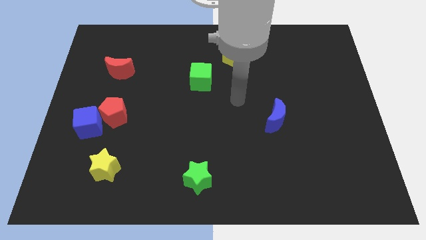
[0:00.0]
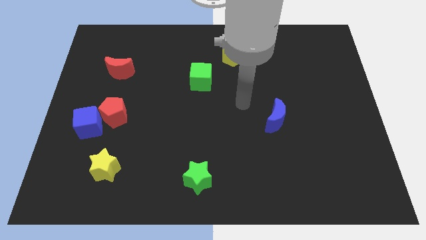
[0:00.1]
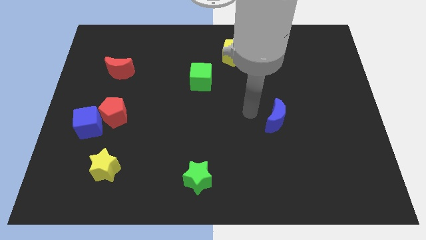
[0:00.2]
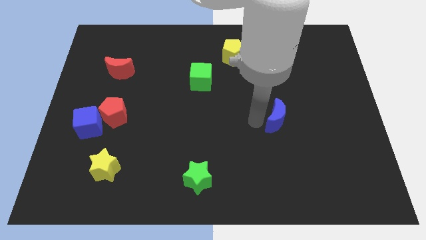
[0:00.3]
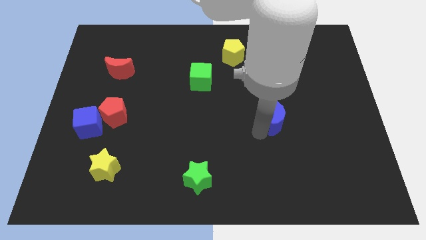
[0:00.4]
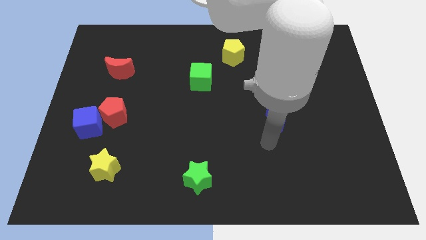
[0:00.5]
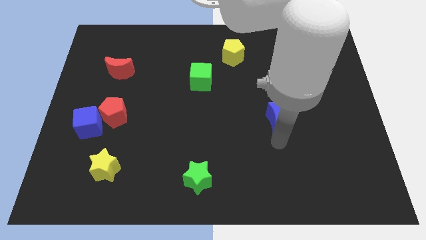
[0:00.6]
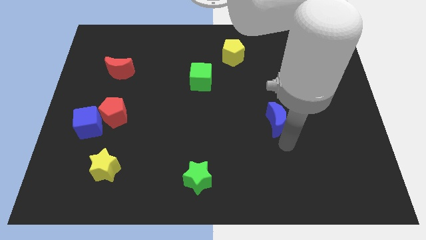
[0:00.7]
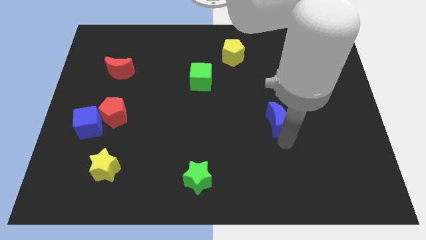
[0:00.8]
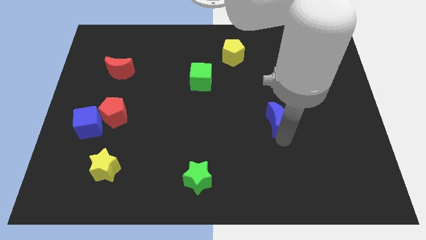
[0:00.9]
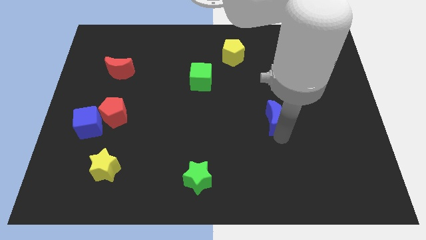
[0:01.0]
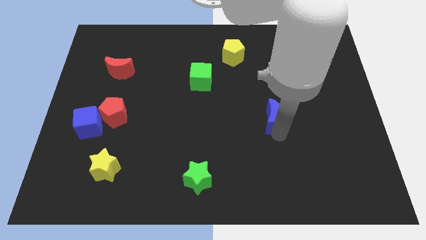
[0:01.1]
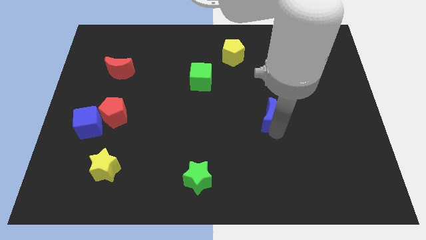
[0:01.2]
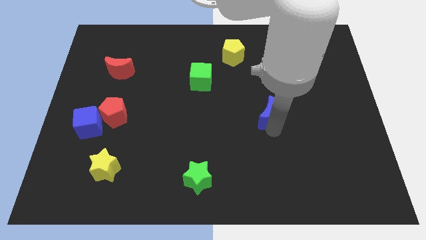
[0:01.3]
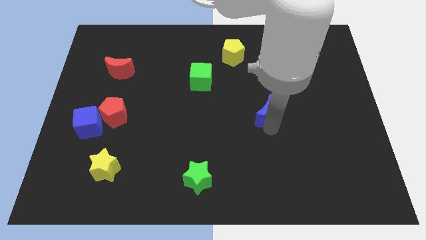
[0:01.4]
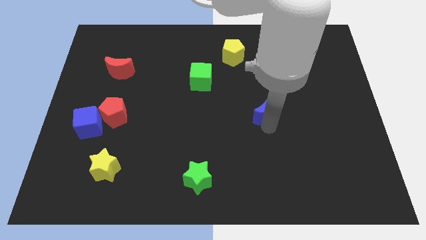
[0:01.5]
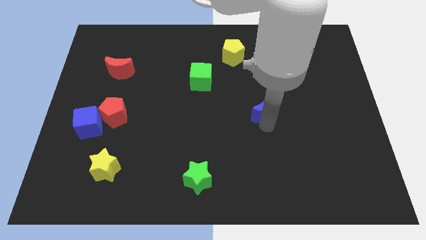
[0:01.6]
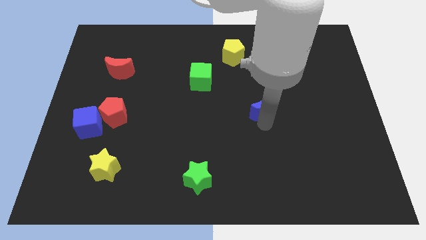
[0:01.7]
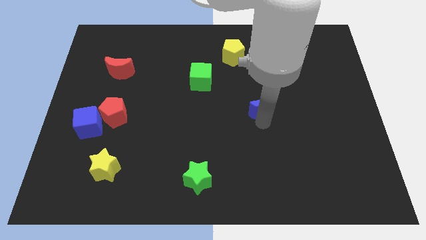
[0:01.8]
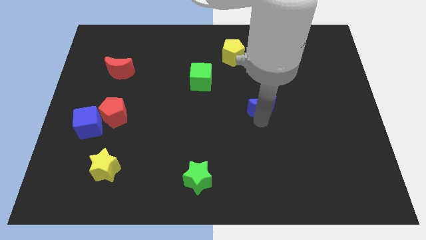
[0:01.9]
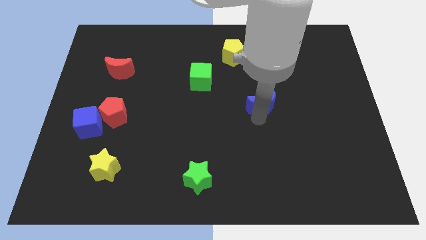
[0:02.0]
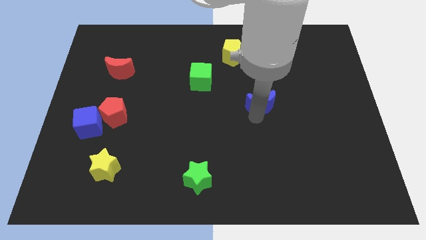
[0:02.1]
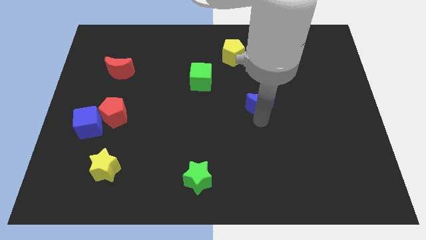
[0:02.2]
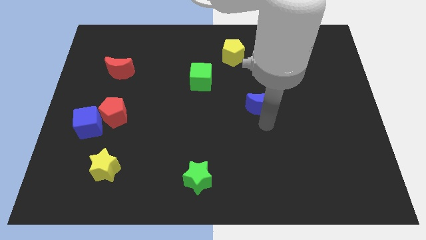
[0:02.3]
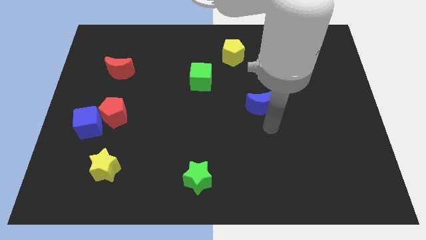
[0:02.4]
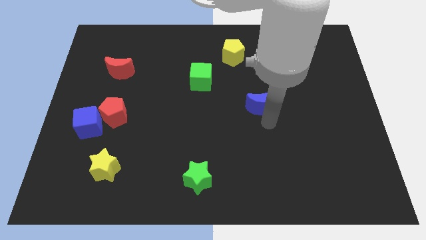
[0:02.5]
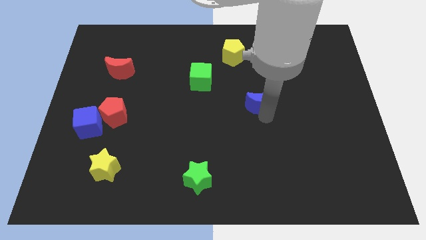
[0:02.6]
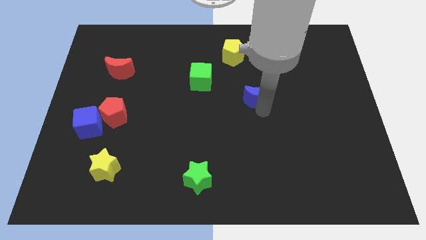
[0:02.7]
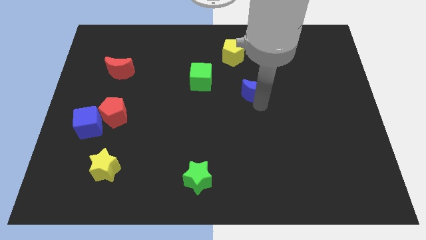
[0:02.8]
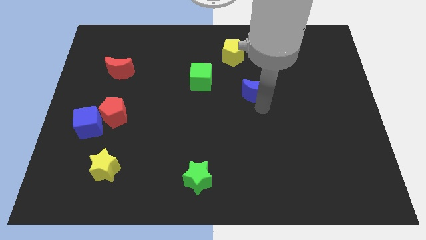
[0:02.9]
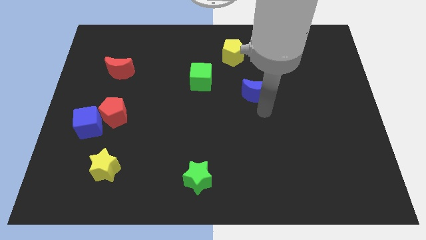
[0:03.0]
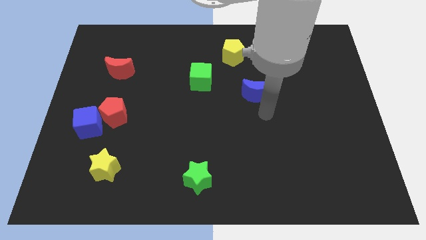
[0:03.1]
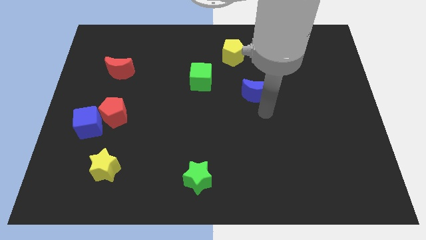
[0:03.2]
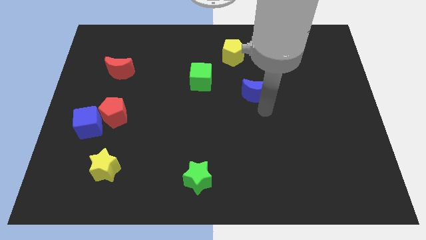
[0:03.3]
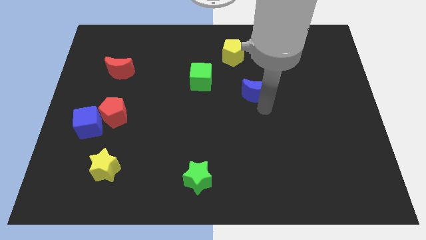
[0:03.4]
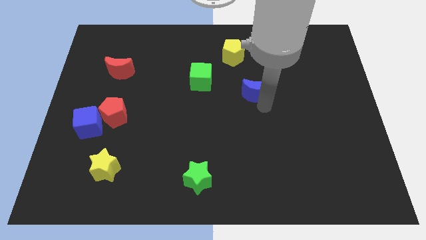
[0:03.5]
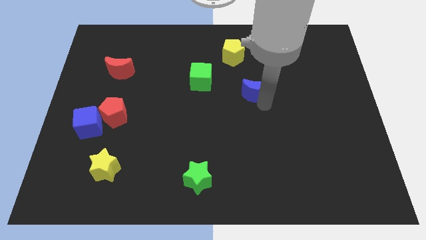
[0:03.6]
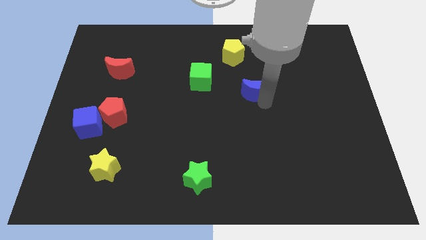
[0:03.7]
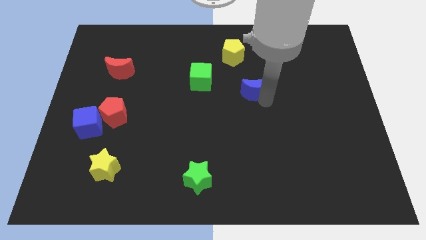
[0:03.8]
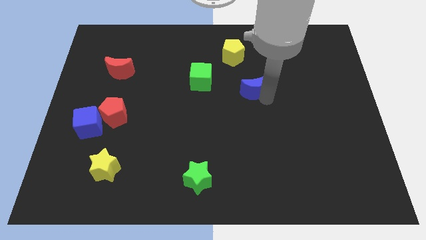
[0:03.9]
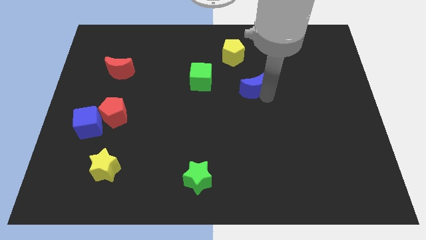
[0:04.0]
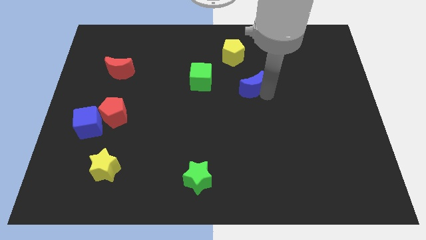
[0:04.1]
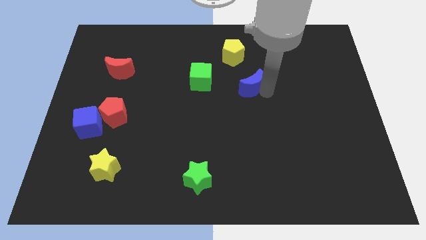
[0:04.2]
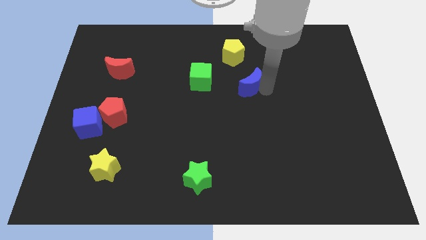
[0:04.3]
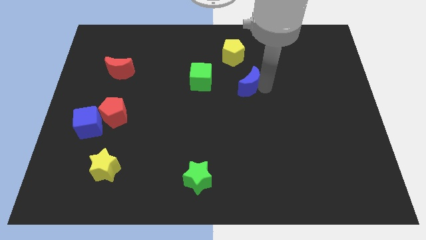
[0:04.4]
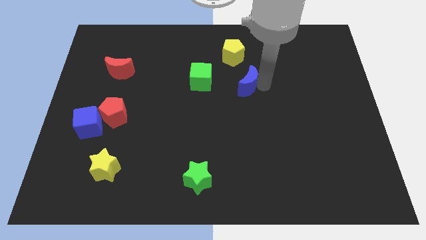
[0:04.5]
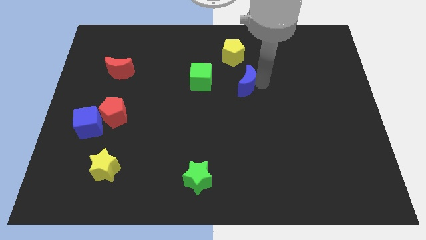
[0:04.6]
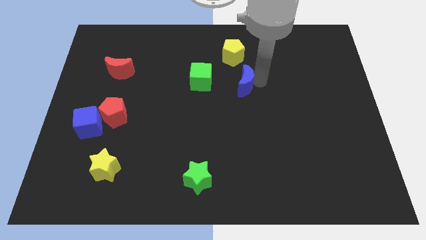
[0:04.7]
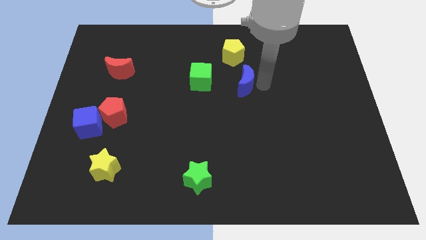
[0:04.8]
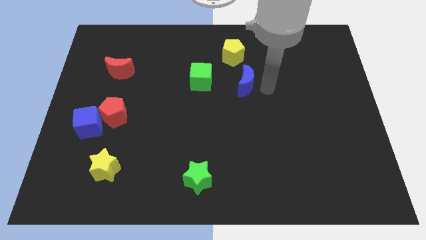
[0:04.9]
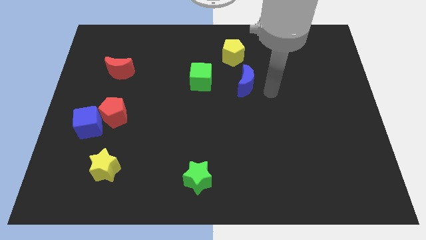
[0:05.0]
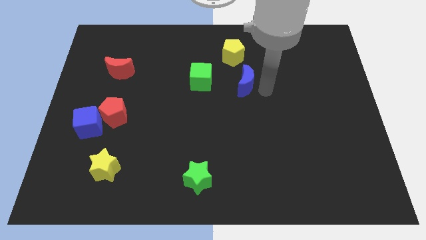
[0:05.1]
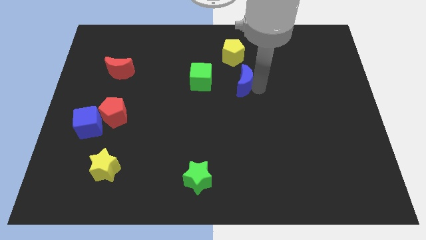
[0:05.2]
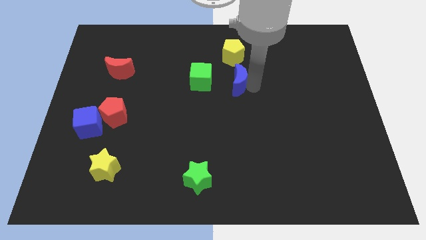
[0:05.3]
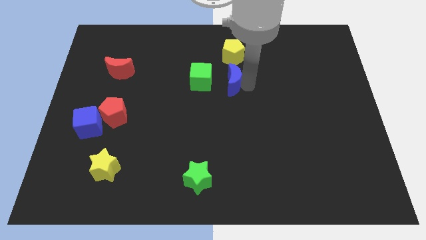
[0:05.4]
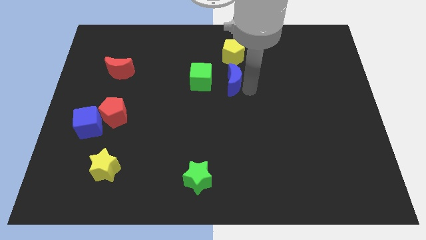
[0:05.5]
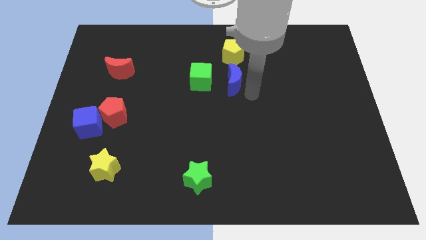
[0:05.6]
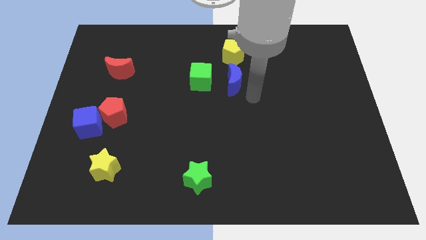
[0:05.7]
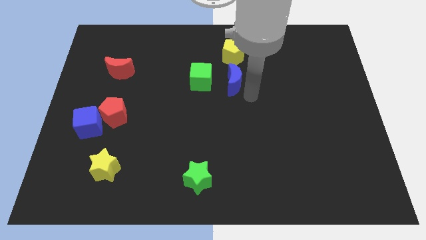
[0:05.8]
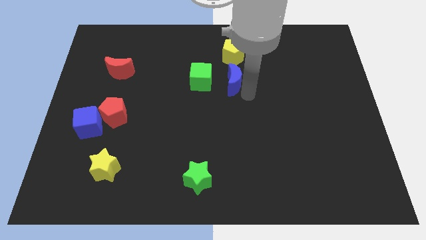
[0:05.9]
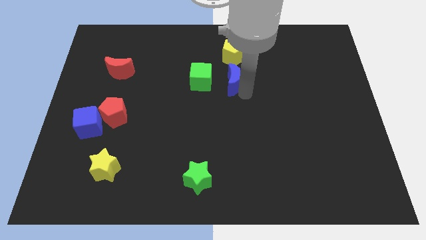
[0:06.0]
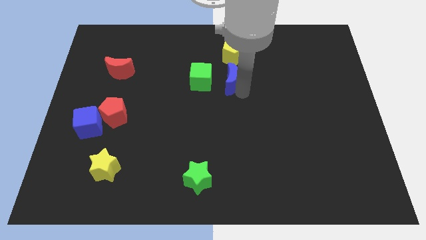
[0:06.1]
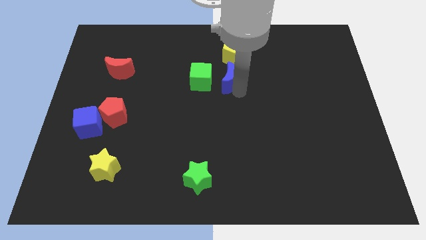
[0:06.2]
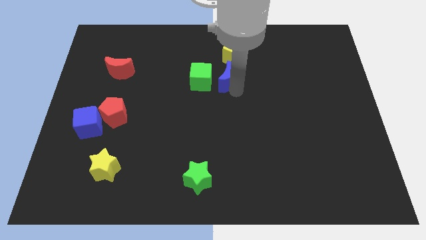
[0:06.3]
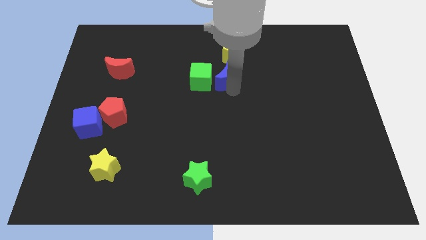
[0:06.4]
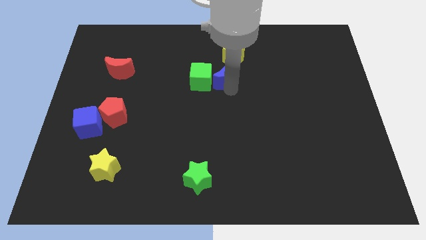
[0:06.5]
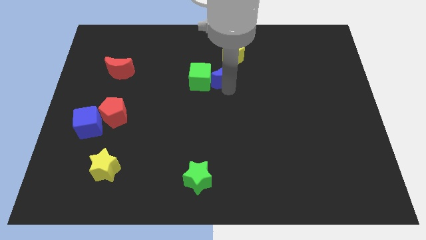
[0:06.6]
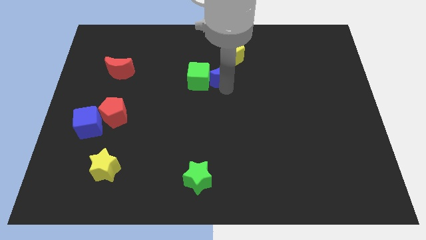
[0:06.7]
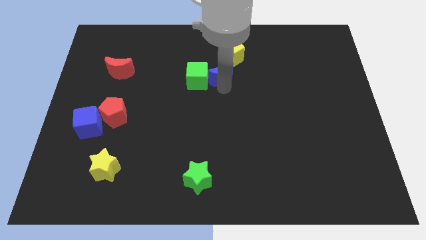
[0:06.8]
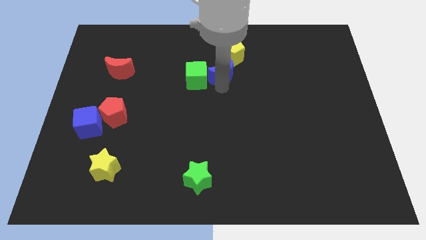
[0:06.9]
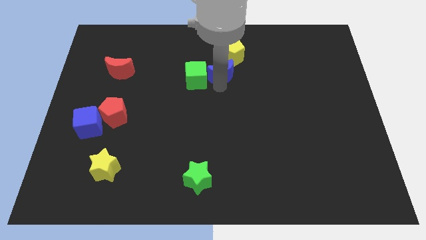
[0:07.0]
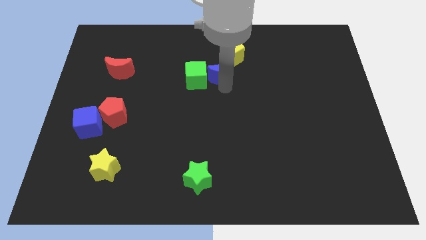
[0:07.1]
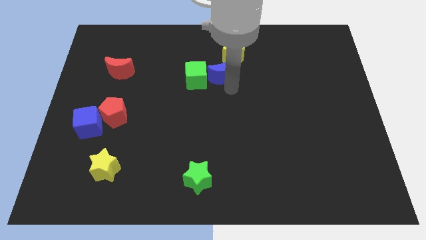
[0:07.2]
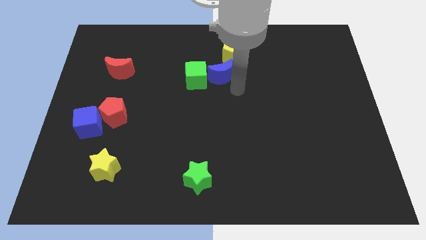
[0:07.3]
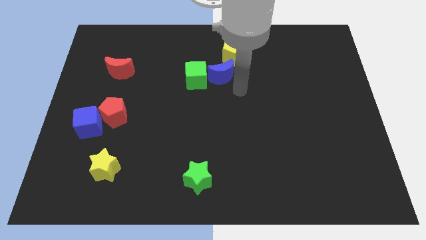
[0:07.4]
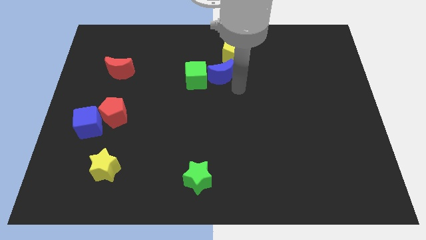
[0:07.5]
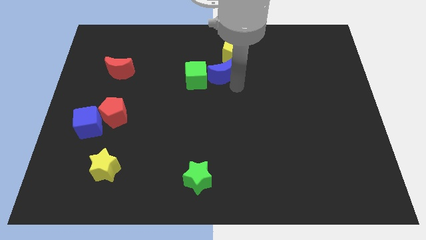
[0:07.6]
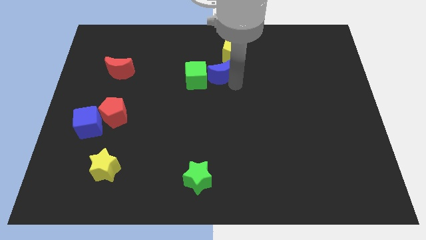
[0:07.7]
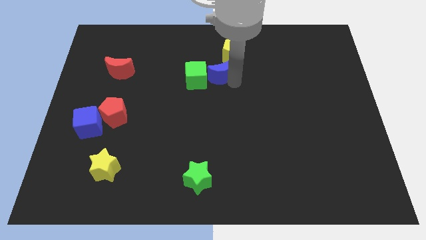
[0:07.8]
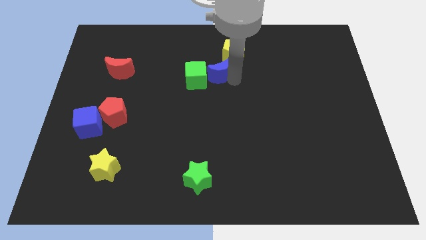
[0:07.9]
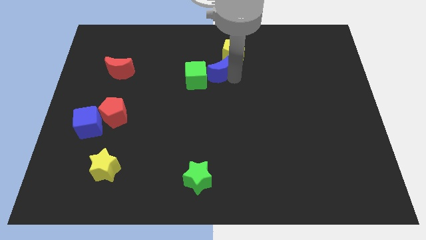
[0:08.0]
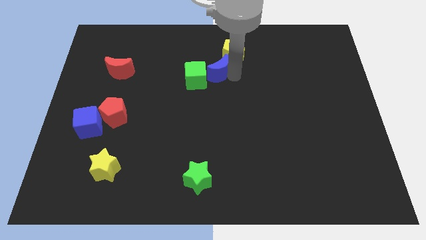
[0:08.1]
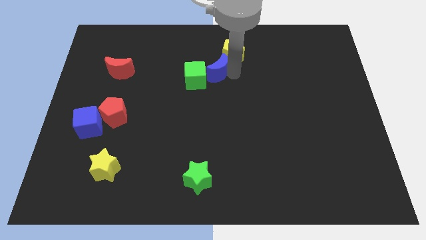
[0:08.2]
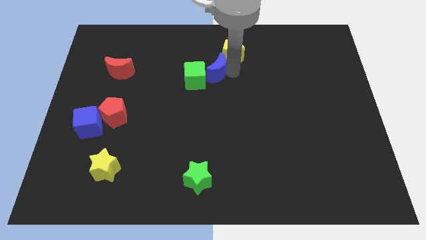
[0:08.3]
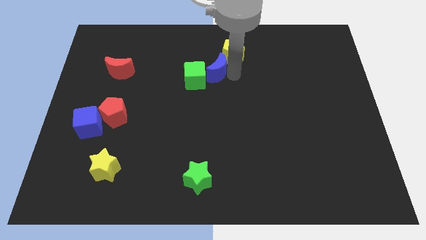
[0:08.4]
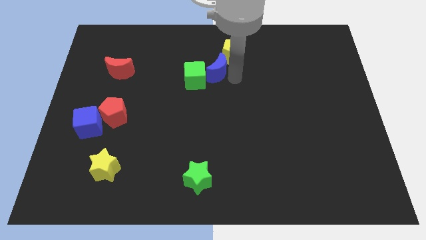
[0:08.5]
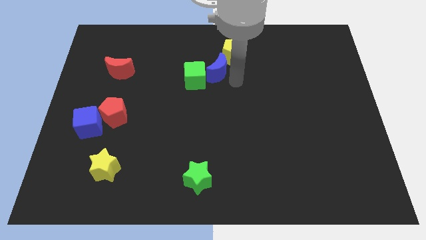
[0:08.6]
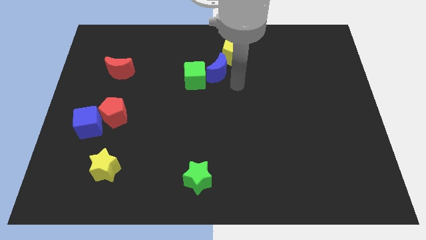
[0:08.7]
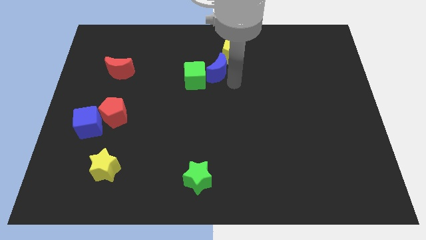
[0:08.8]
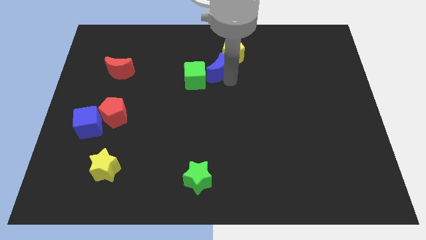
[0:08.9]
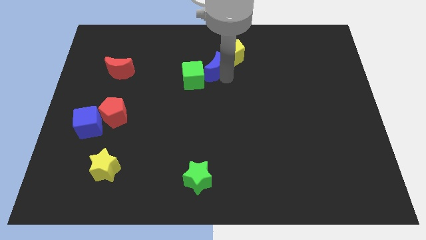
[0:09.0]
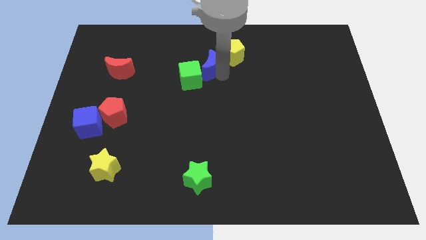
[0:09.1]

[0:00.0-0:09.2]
move the blue moon to the left side of the yellow pentagon
